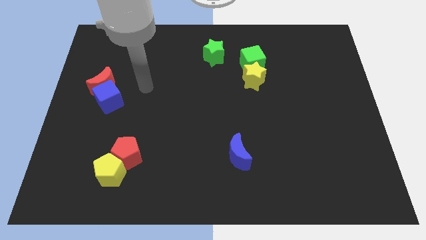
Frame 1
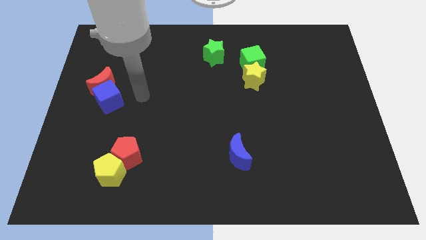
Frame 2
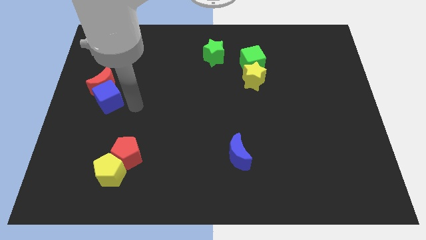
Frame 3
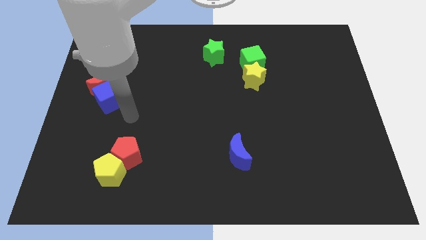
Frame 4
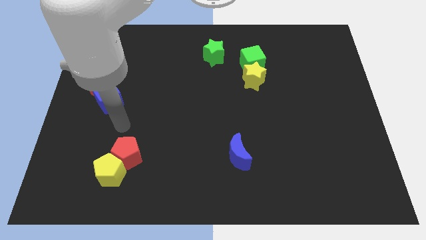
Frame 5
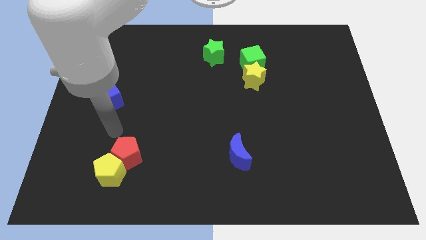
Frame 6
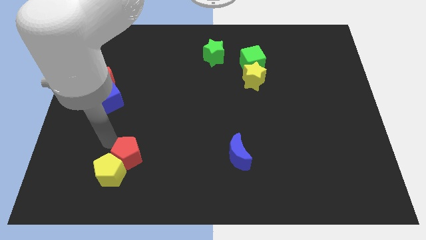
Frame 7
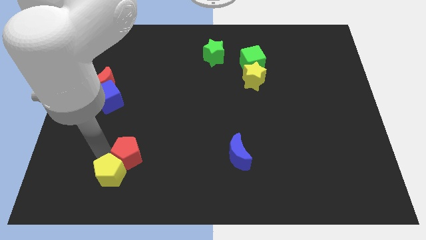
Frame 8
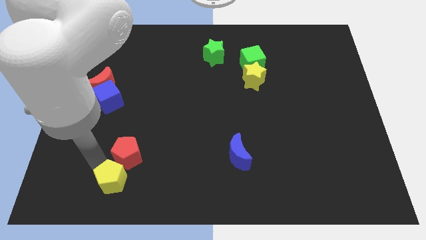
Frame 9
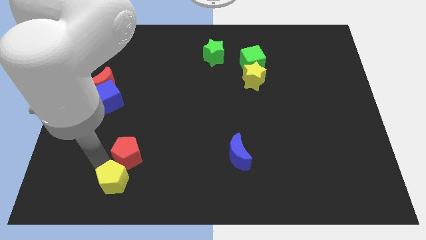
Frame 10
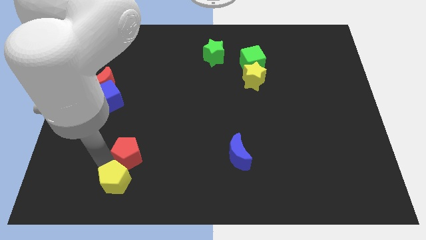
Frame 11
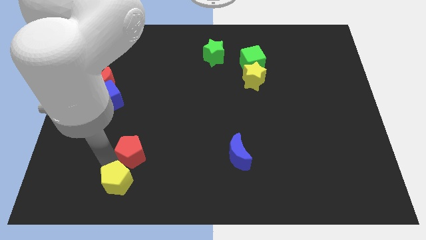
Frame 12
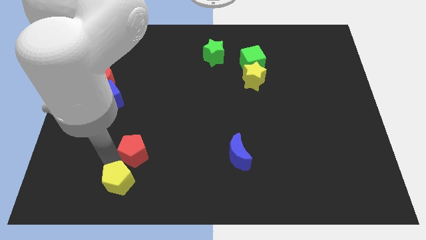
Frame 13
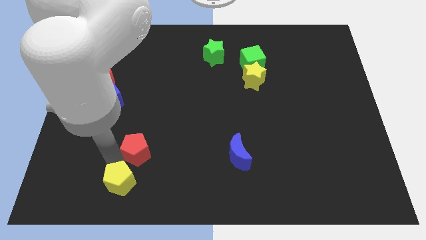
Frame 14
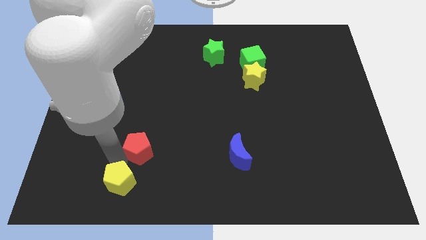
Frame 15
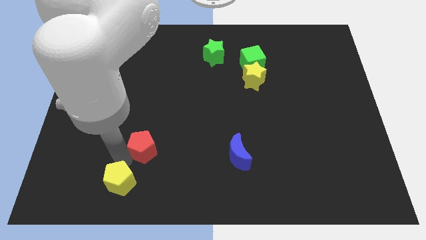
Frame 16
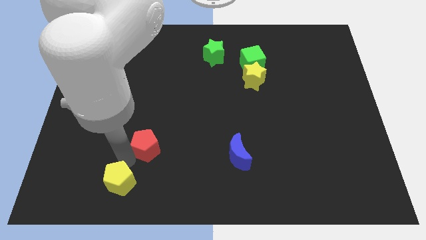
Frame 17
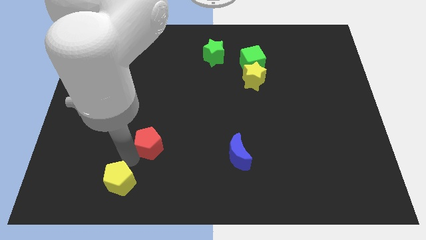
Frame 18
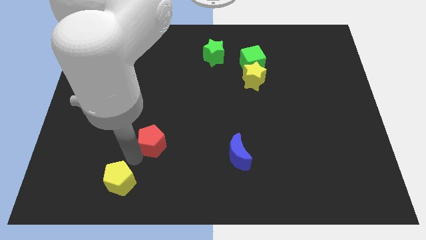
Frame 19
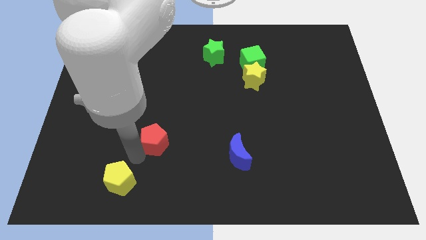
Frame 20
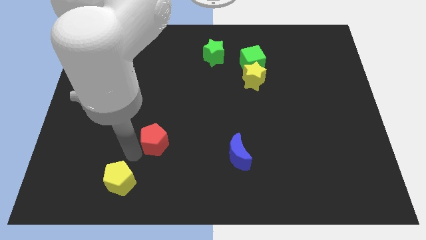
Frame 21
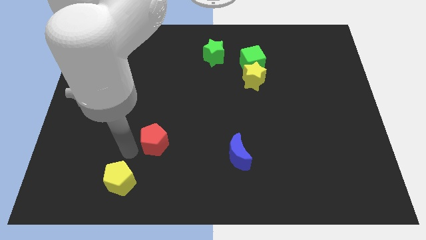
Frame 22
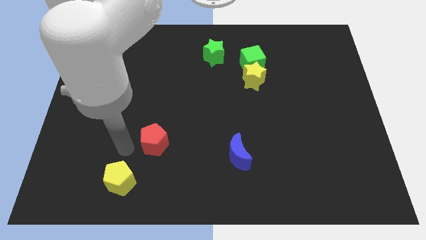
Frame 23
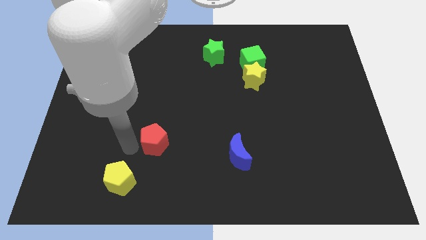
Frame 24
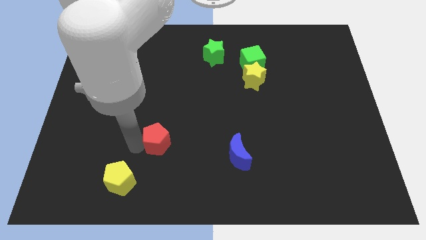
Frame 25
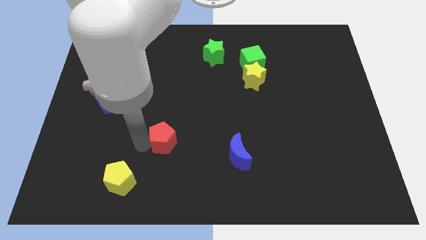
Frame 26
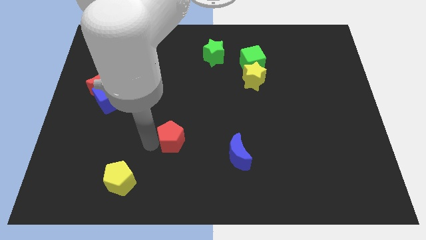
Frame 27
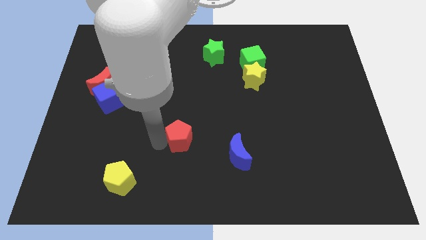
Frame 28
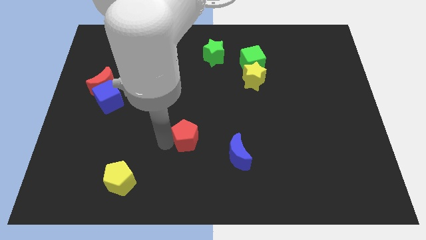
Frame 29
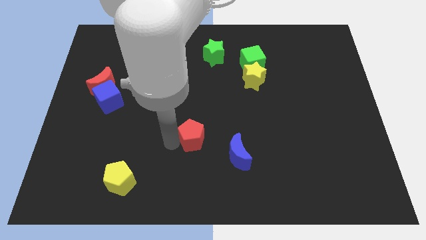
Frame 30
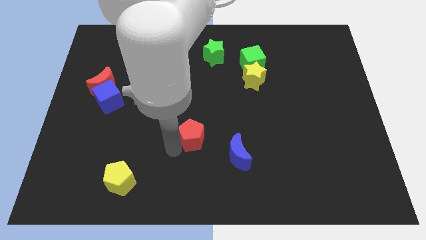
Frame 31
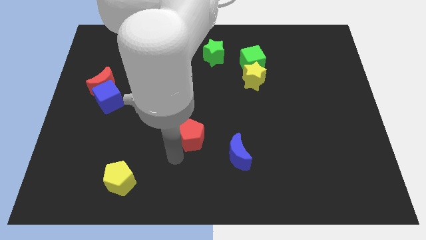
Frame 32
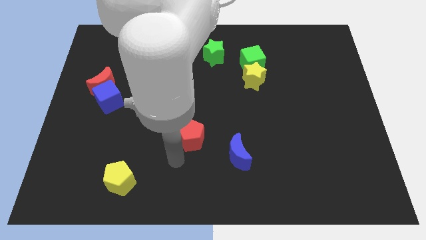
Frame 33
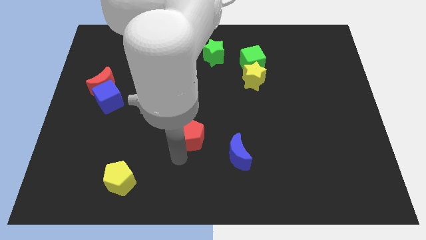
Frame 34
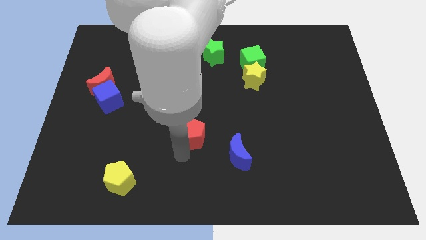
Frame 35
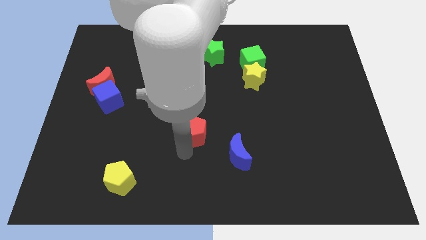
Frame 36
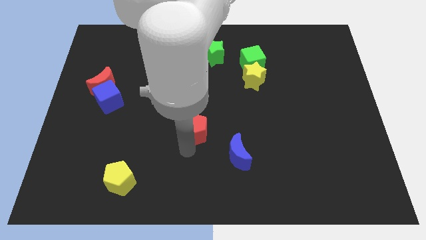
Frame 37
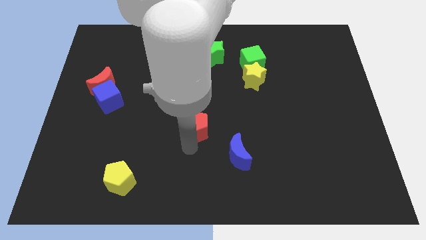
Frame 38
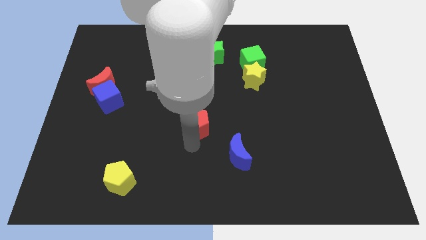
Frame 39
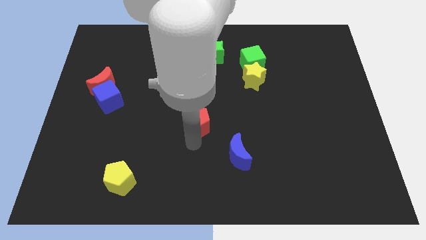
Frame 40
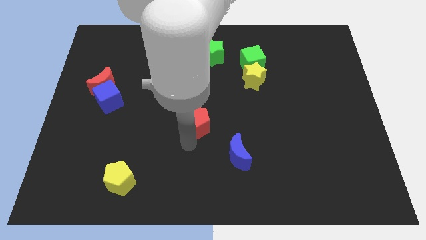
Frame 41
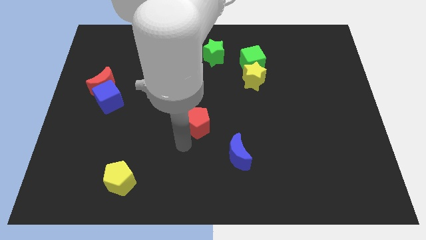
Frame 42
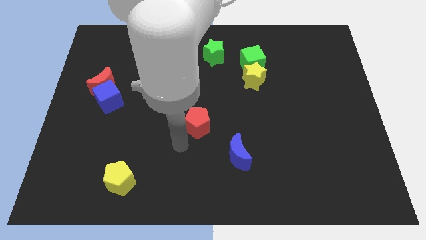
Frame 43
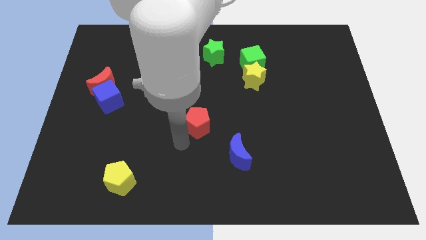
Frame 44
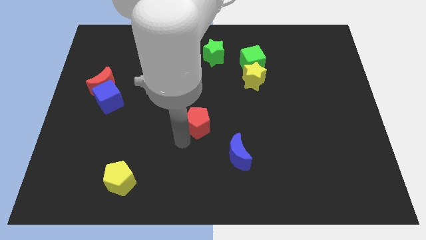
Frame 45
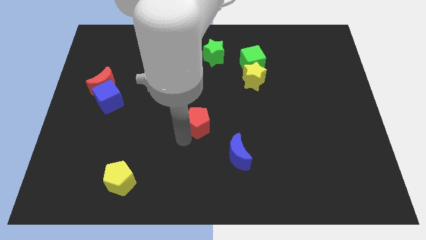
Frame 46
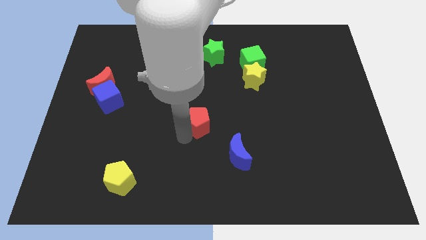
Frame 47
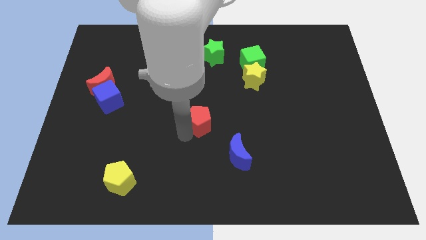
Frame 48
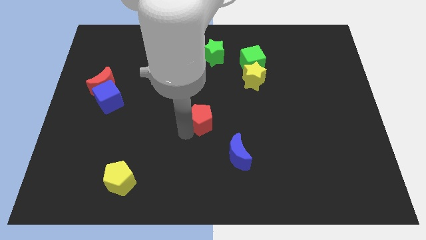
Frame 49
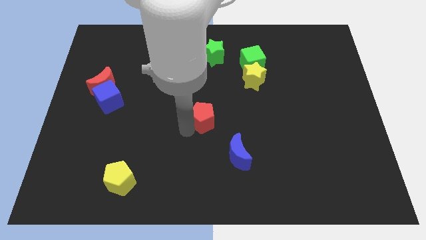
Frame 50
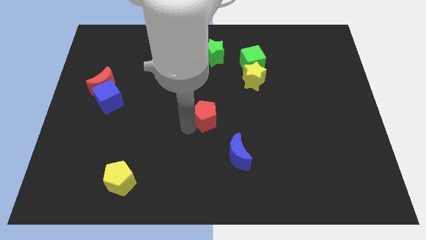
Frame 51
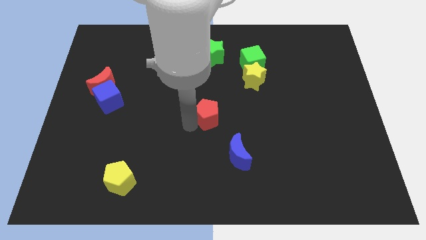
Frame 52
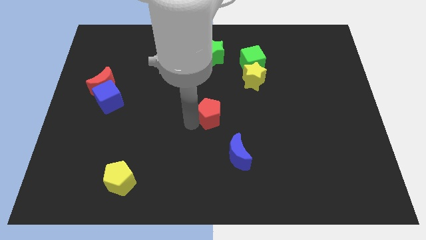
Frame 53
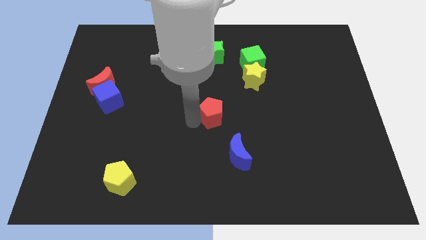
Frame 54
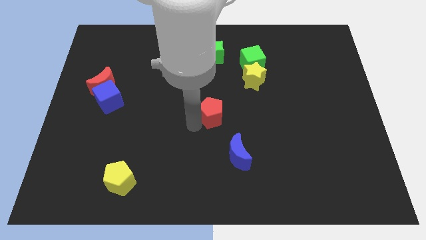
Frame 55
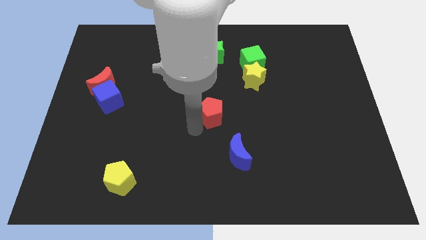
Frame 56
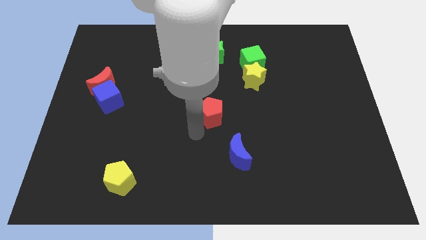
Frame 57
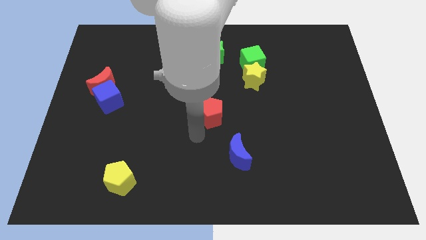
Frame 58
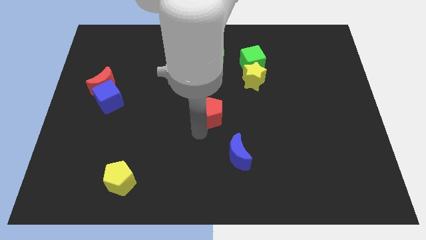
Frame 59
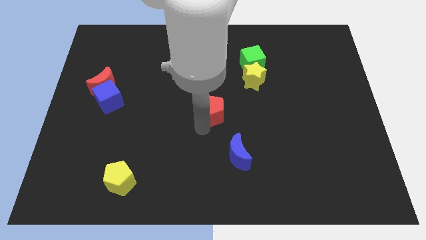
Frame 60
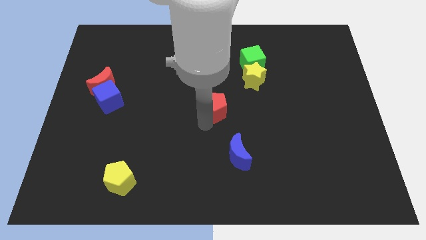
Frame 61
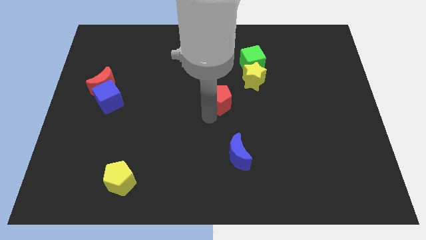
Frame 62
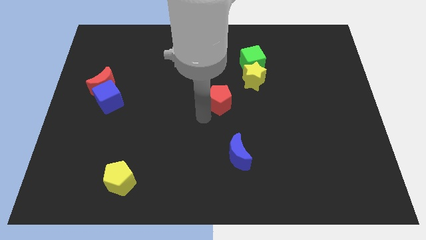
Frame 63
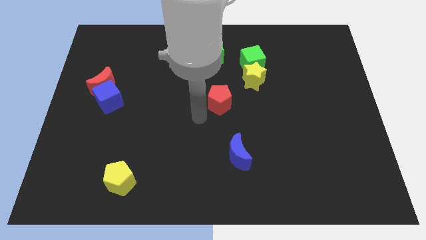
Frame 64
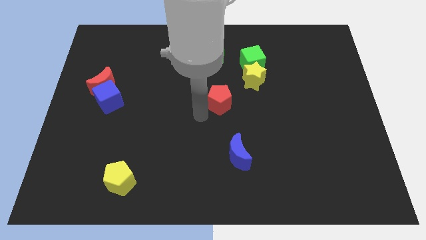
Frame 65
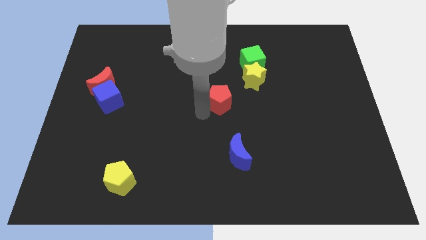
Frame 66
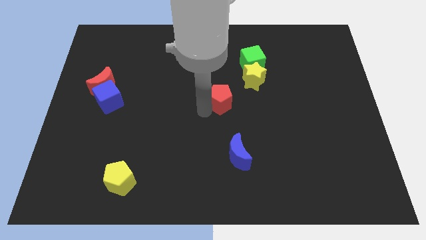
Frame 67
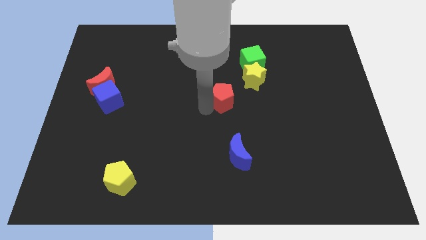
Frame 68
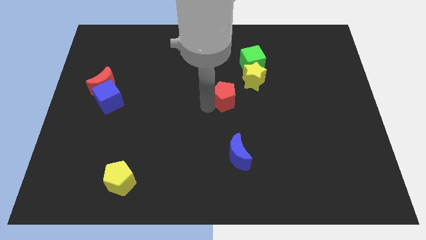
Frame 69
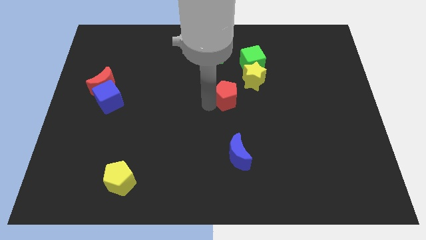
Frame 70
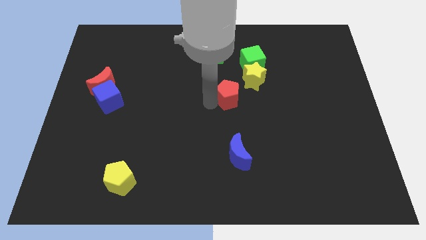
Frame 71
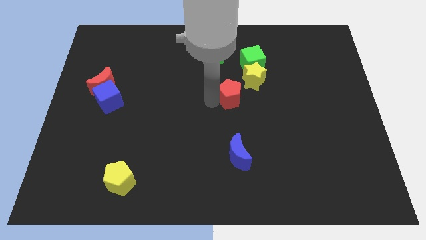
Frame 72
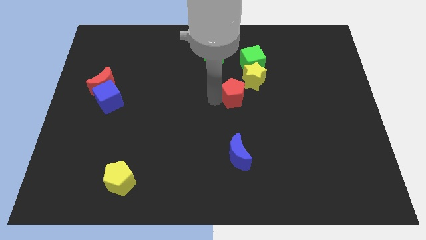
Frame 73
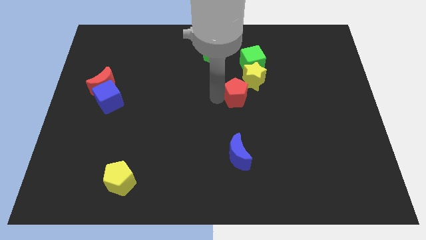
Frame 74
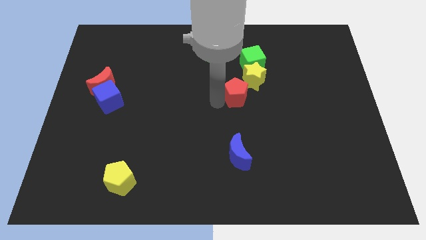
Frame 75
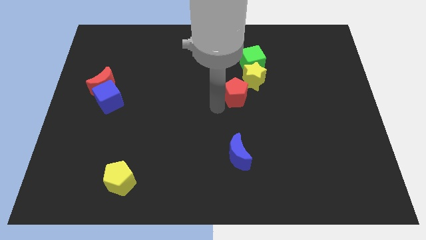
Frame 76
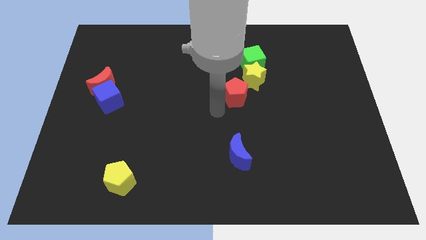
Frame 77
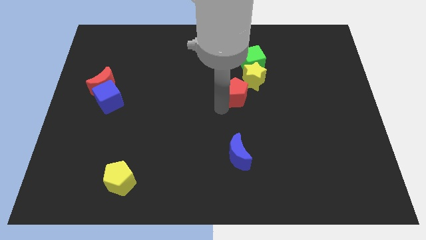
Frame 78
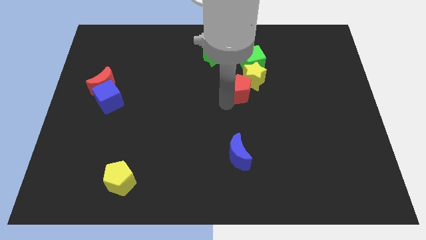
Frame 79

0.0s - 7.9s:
put the red pentagon towards the yellow star

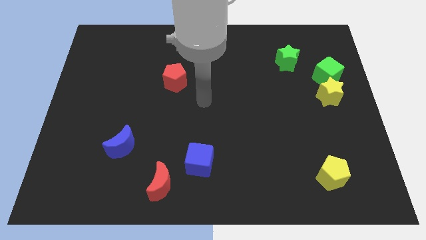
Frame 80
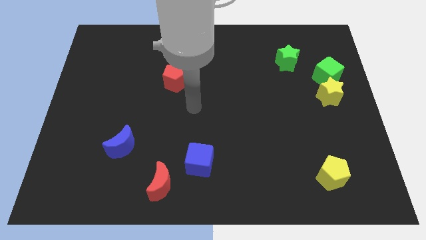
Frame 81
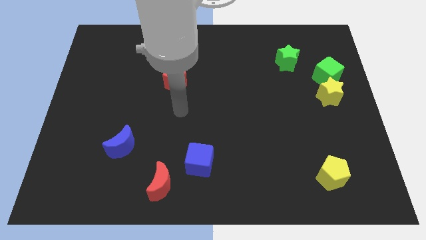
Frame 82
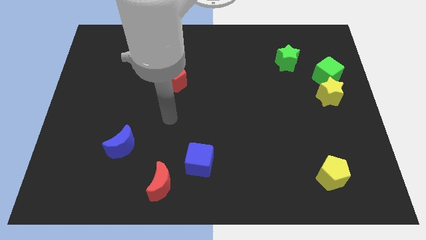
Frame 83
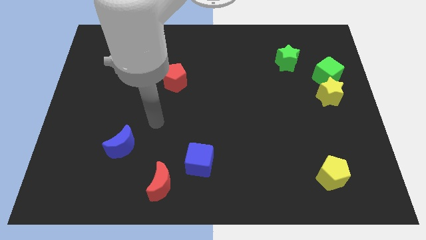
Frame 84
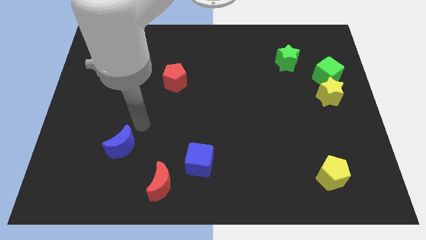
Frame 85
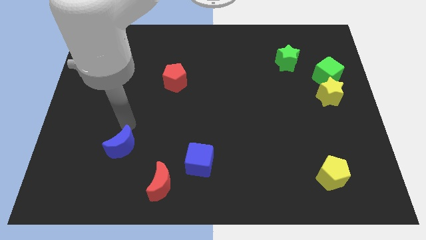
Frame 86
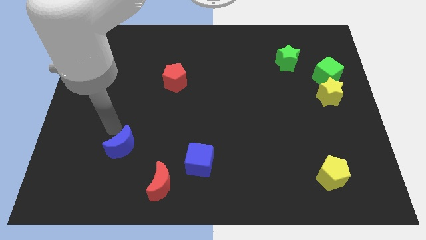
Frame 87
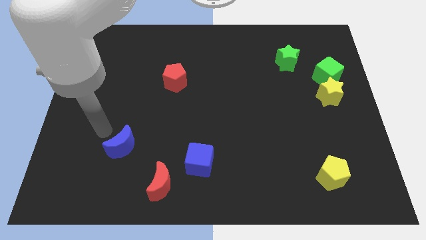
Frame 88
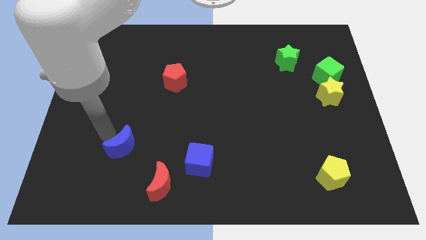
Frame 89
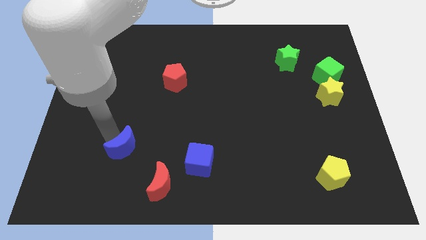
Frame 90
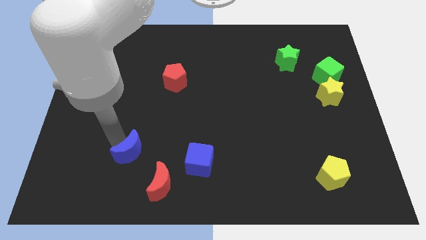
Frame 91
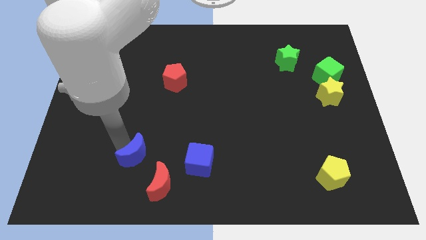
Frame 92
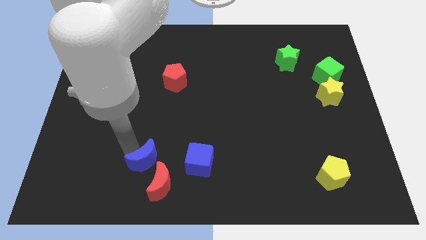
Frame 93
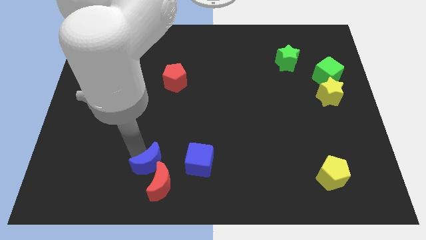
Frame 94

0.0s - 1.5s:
put the blue moon next to the red moon
